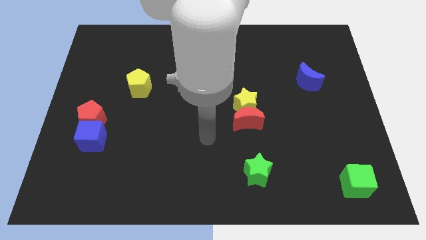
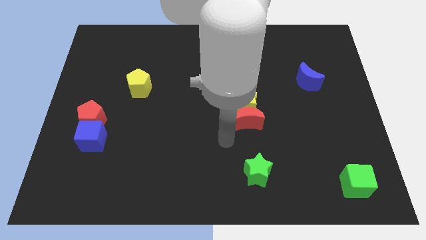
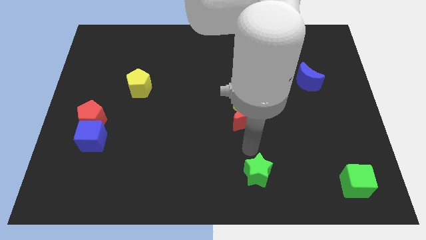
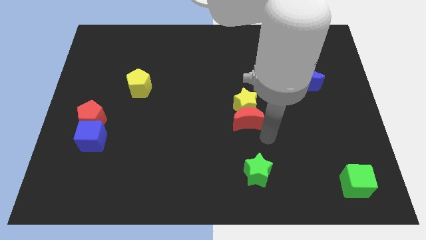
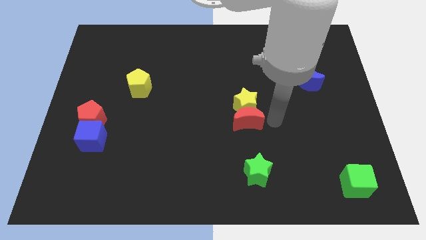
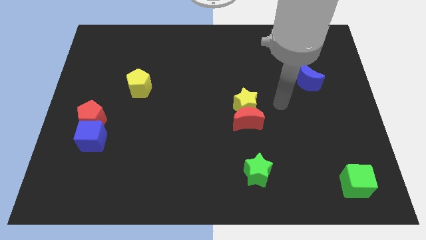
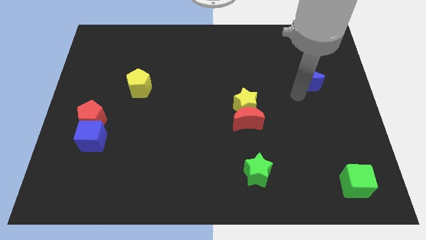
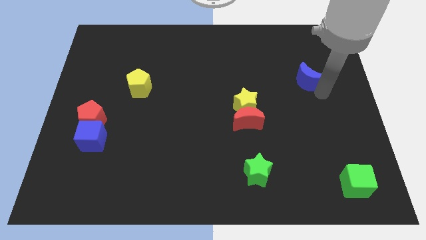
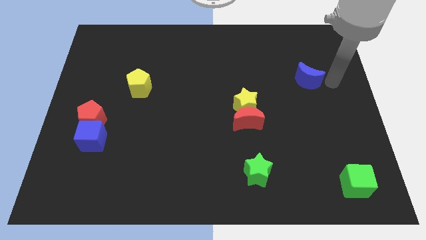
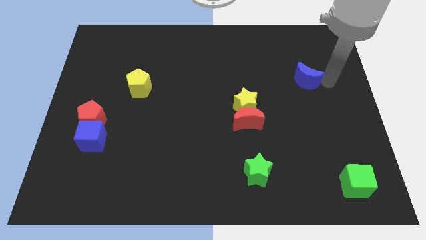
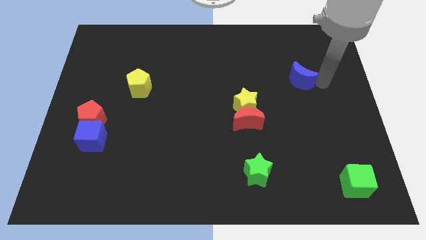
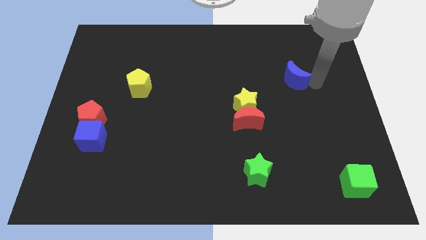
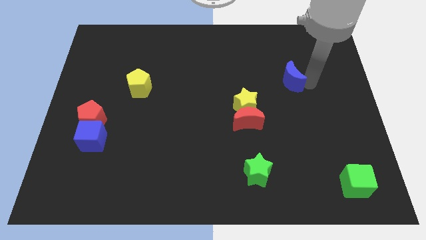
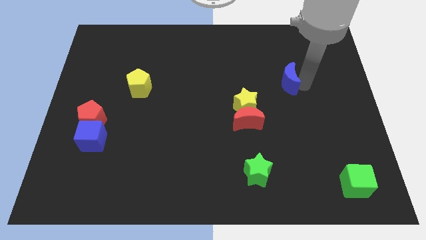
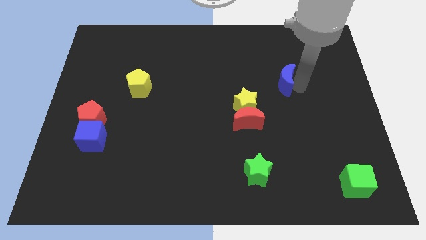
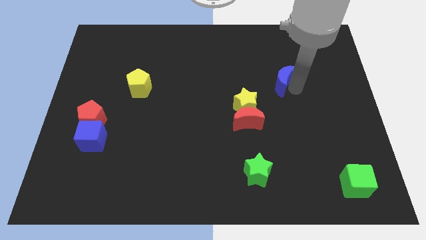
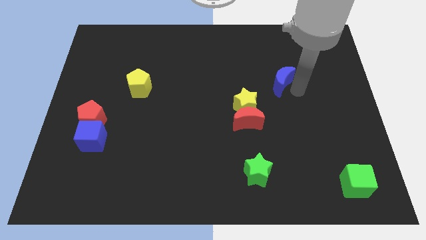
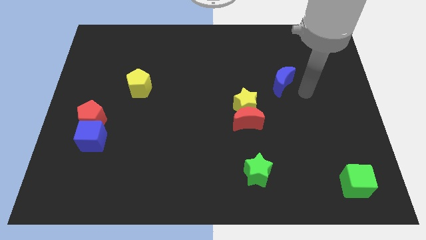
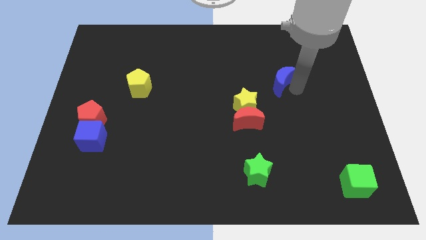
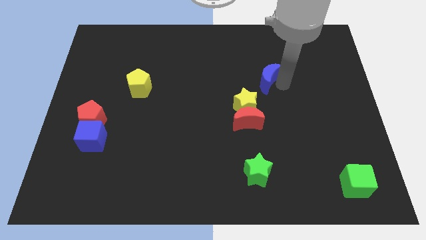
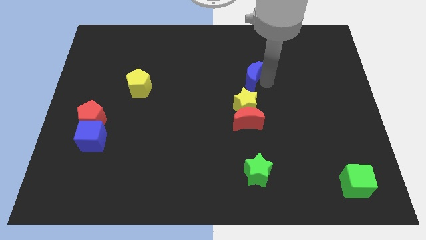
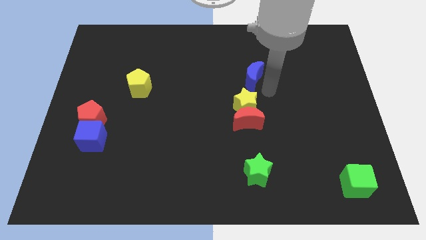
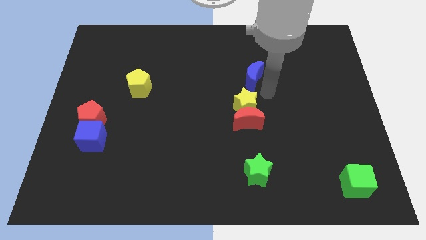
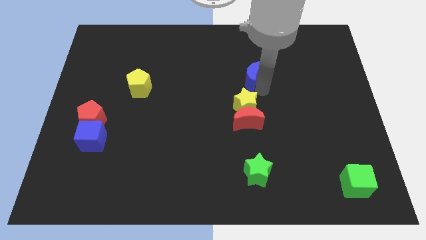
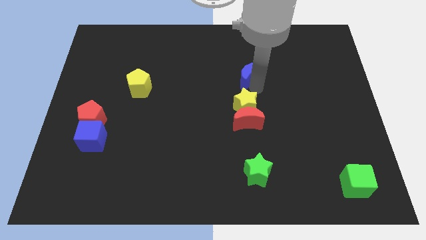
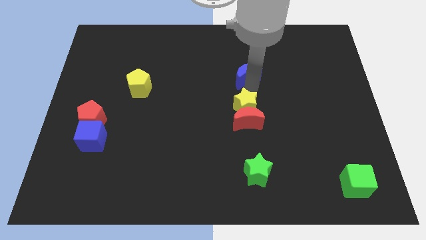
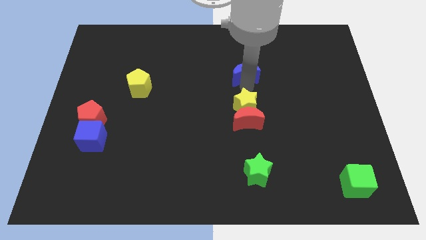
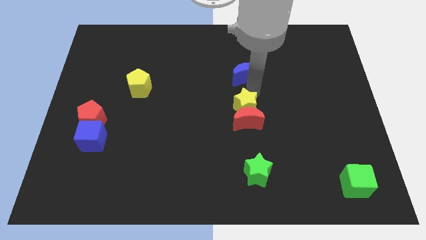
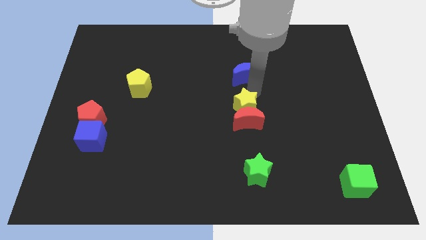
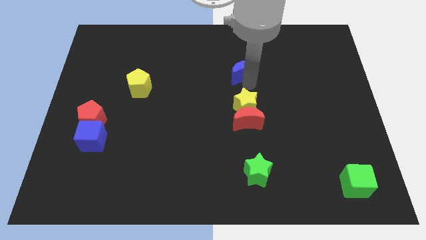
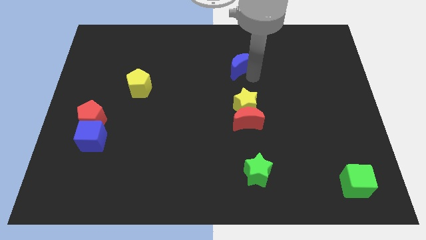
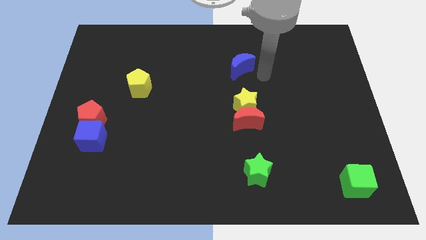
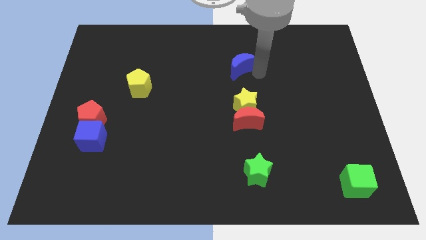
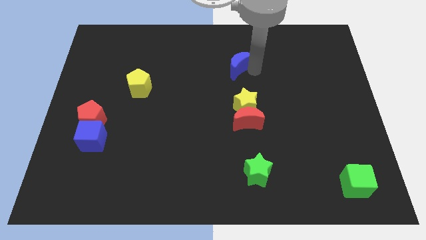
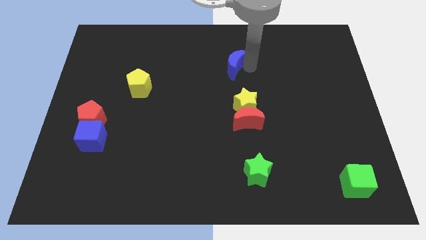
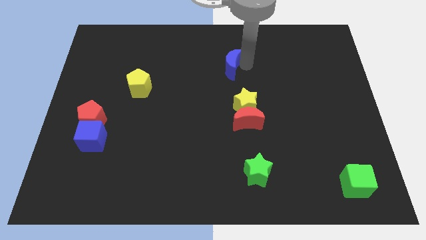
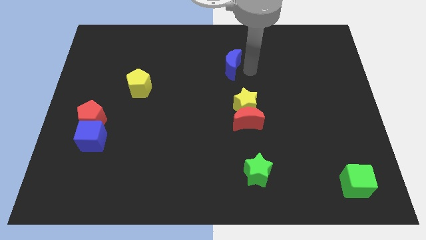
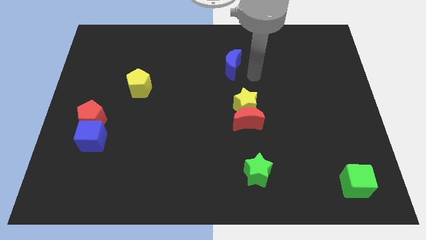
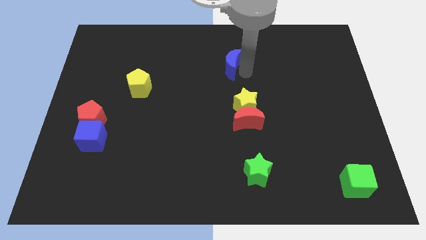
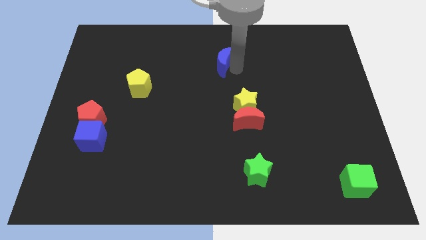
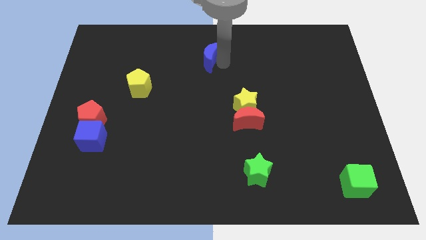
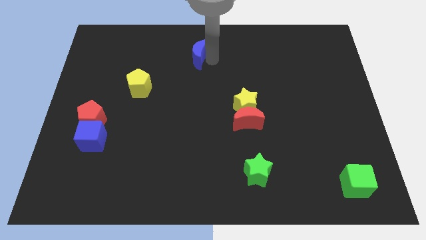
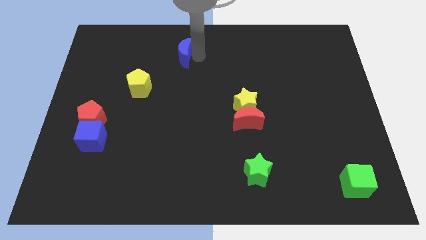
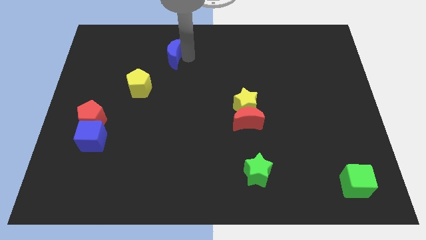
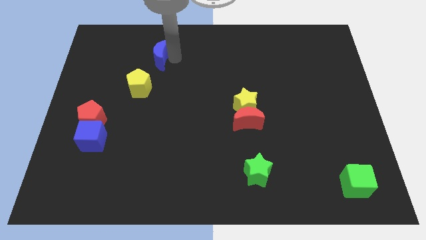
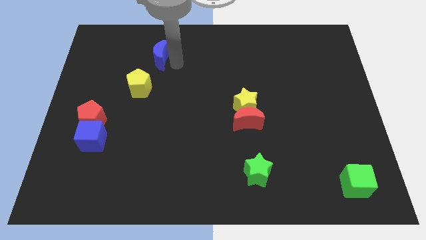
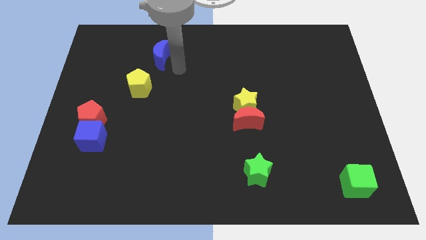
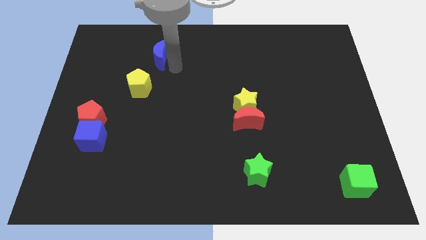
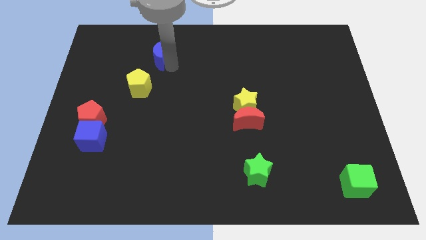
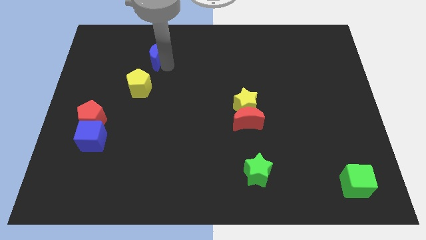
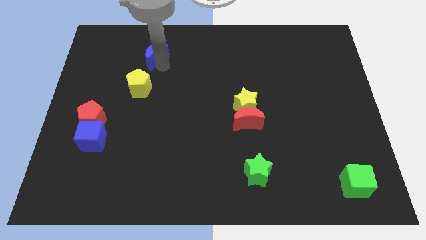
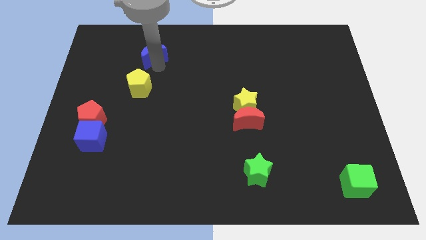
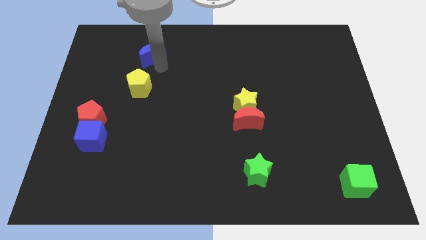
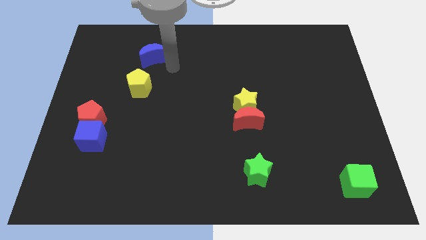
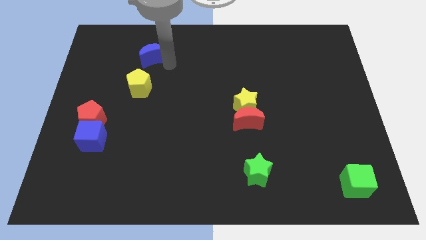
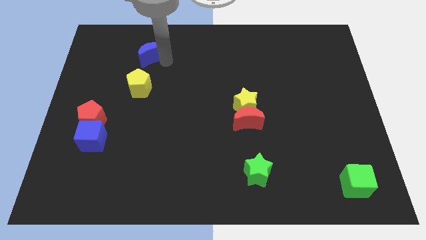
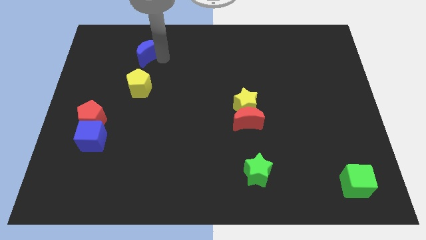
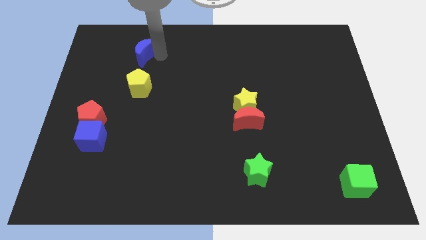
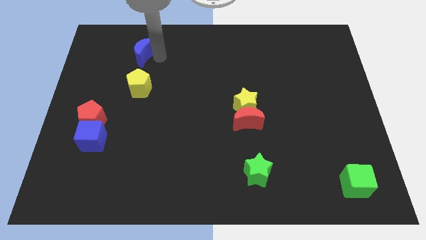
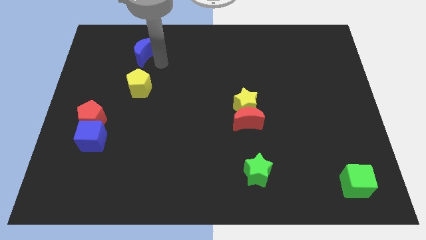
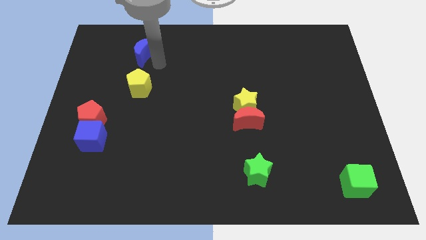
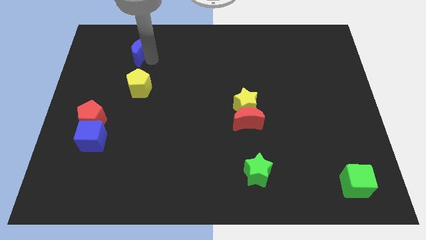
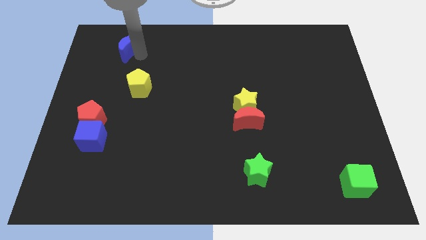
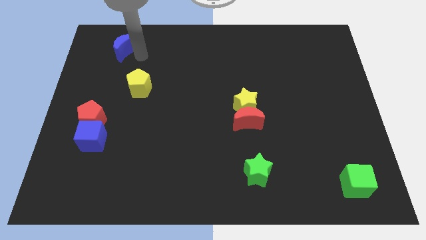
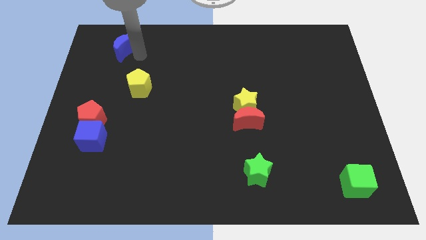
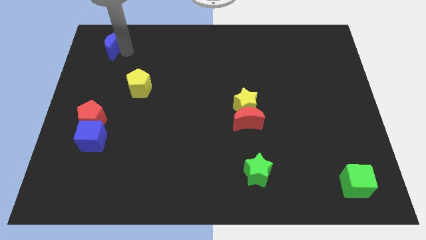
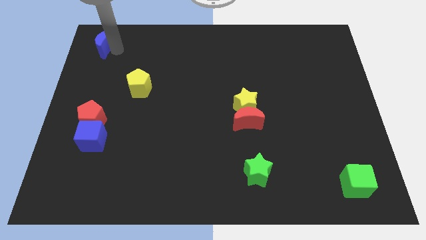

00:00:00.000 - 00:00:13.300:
move the blue moon to the upper left corner
